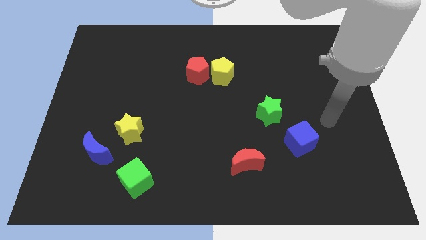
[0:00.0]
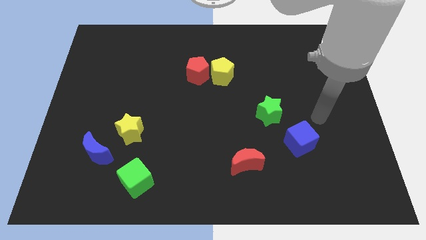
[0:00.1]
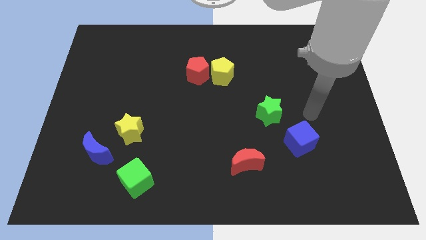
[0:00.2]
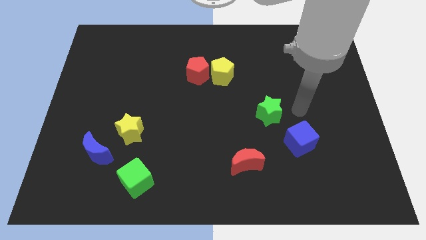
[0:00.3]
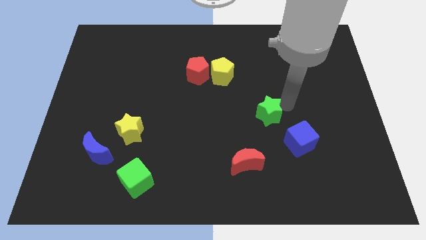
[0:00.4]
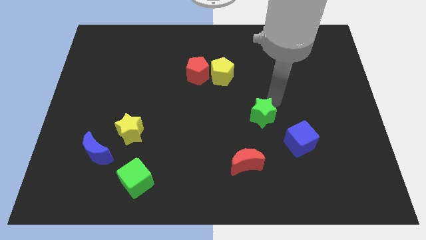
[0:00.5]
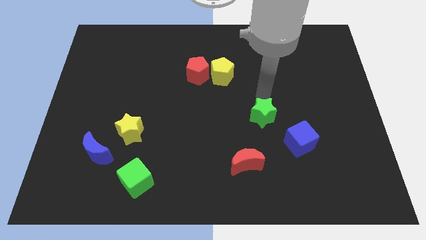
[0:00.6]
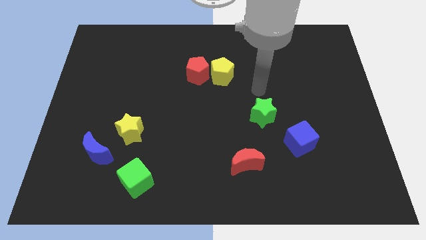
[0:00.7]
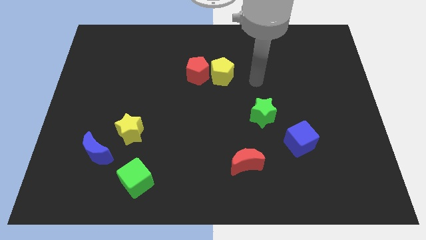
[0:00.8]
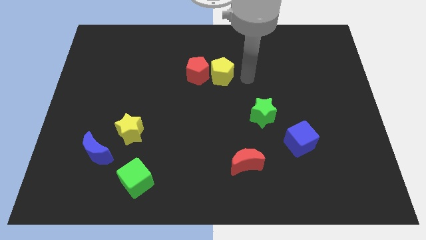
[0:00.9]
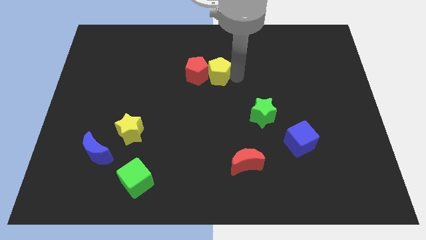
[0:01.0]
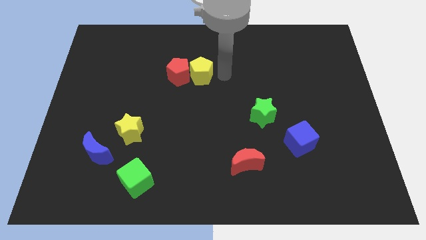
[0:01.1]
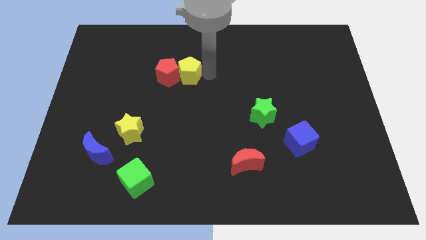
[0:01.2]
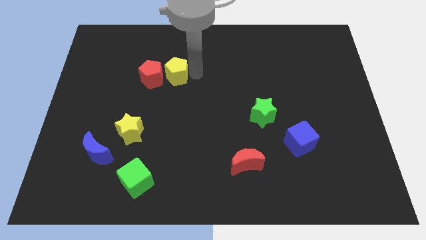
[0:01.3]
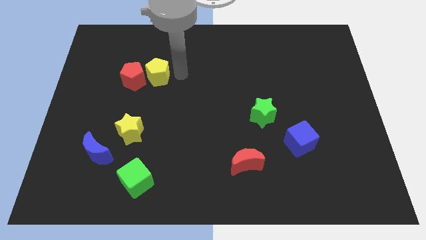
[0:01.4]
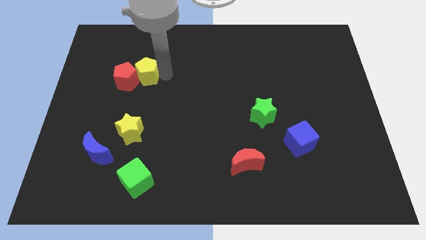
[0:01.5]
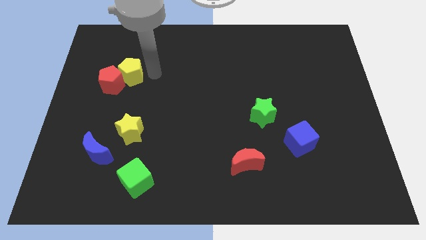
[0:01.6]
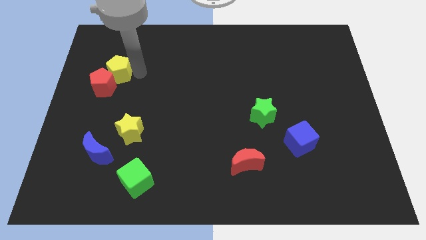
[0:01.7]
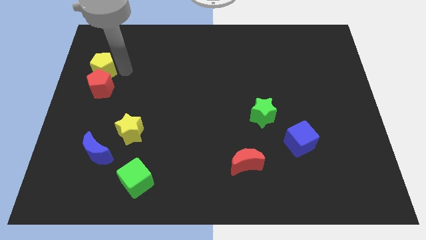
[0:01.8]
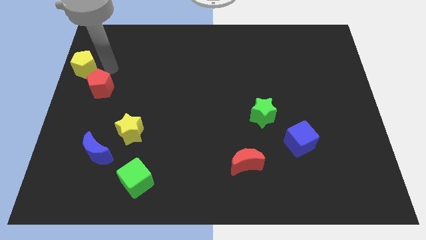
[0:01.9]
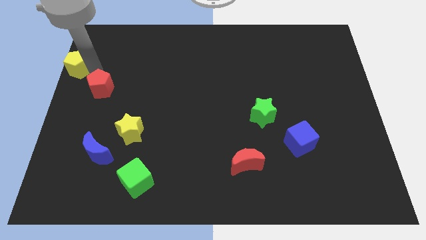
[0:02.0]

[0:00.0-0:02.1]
move the red pentagon away from the yellow pentagon

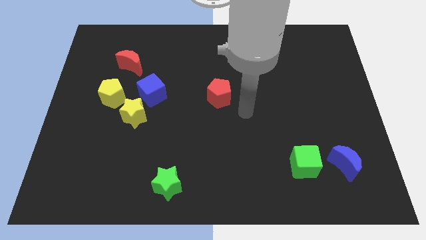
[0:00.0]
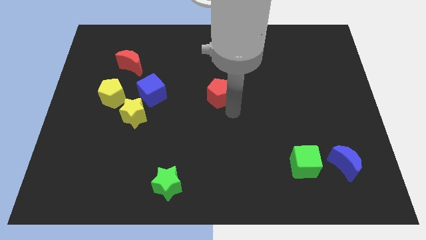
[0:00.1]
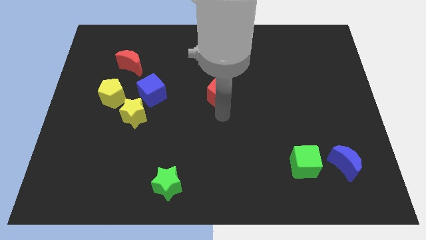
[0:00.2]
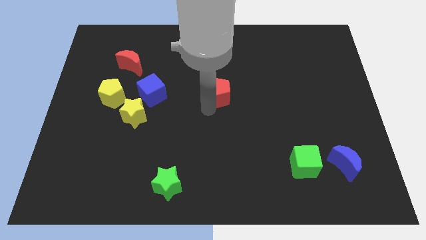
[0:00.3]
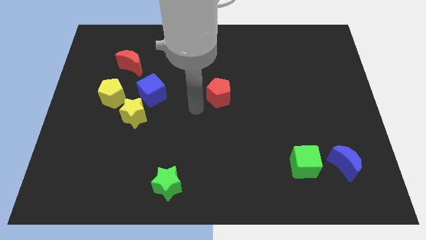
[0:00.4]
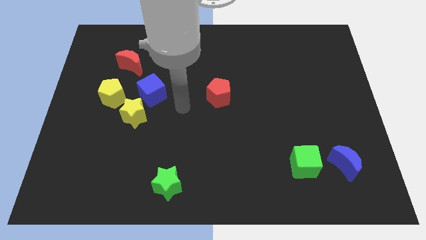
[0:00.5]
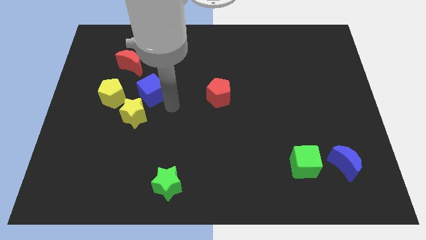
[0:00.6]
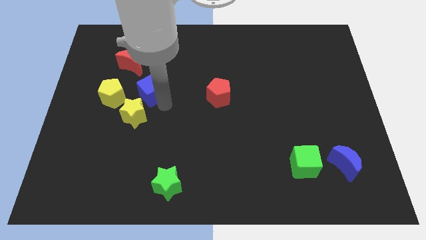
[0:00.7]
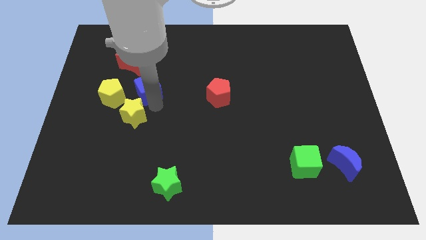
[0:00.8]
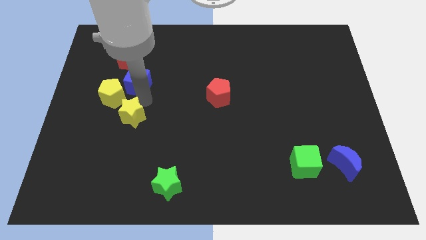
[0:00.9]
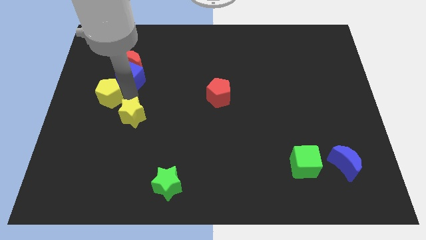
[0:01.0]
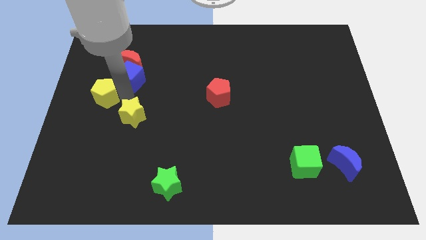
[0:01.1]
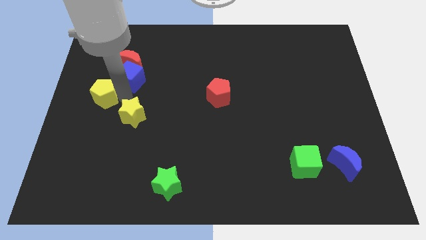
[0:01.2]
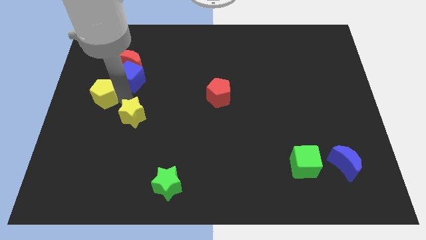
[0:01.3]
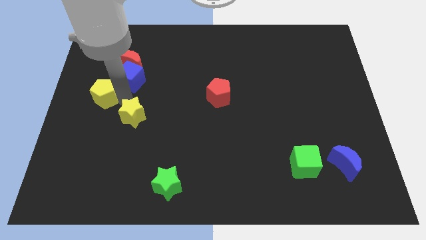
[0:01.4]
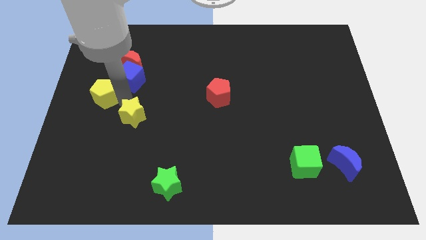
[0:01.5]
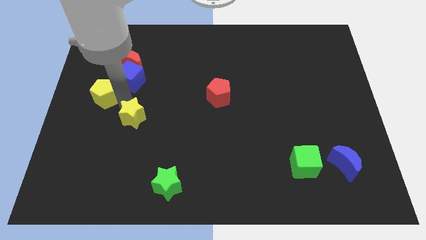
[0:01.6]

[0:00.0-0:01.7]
move the yellow star away from the blue cube and yellow pentagon

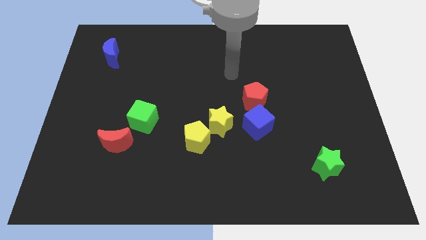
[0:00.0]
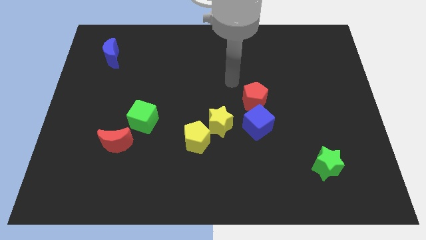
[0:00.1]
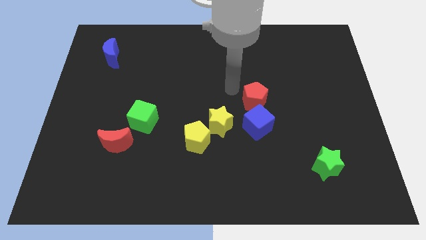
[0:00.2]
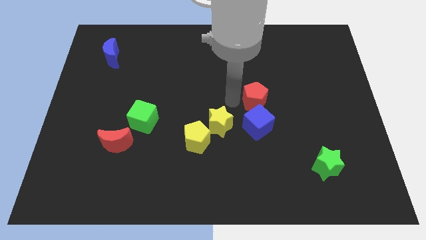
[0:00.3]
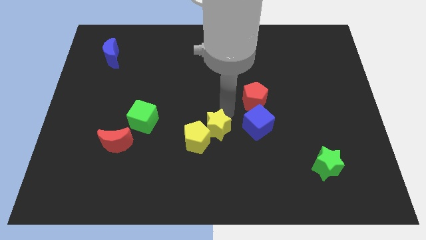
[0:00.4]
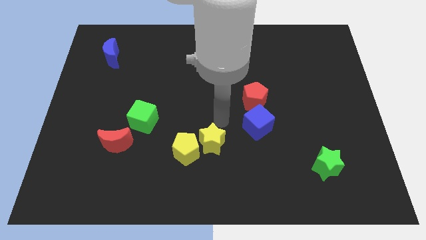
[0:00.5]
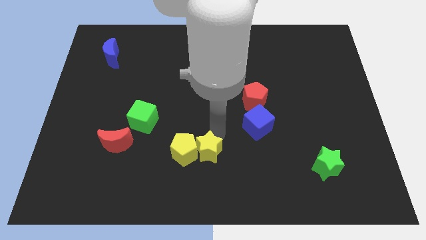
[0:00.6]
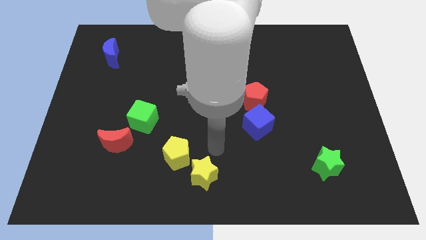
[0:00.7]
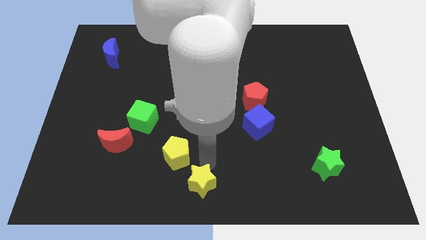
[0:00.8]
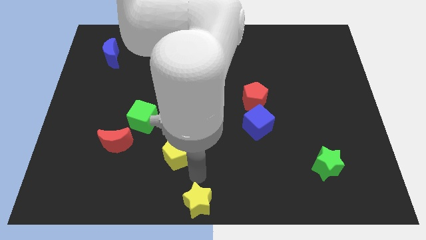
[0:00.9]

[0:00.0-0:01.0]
separate the yellow pentagon from the yellow star

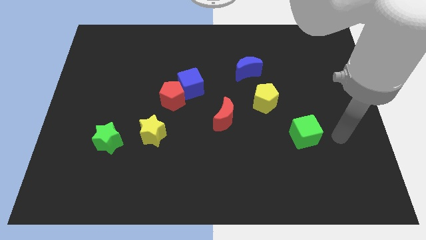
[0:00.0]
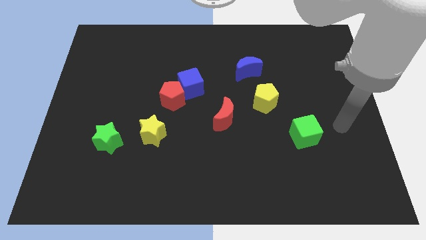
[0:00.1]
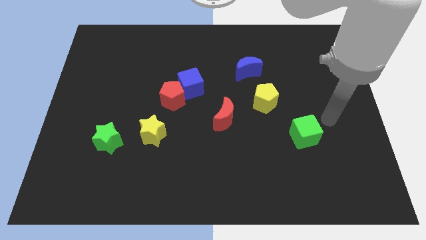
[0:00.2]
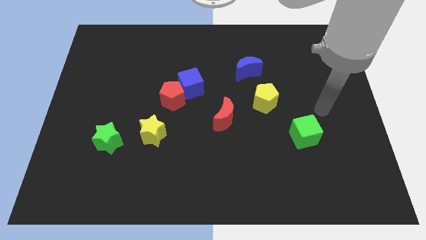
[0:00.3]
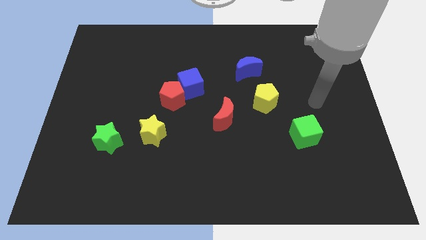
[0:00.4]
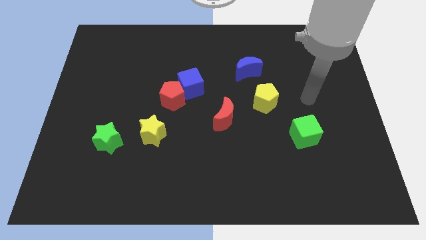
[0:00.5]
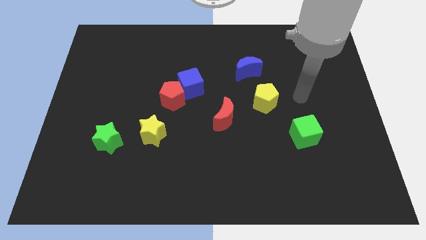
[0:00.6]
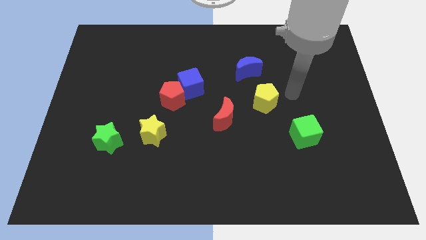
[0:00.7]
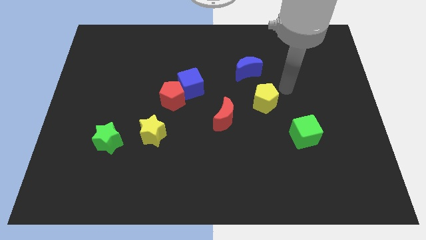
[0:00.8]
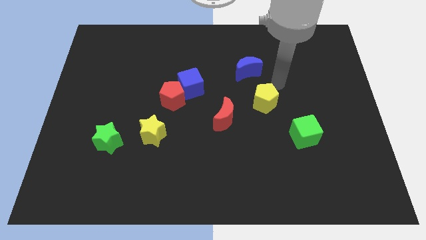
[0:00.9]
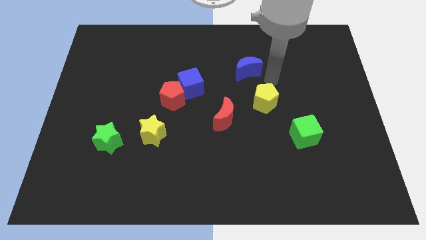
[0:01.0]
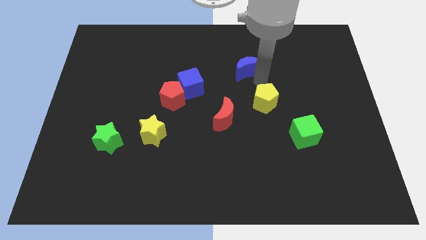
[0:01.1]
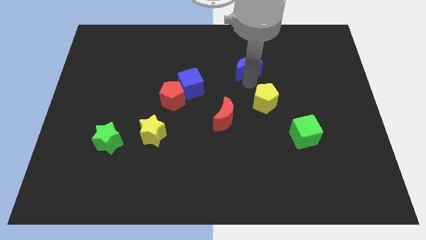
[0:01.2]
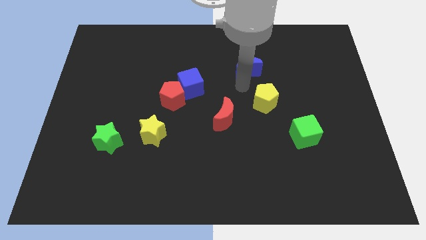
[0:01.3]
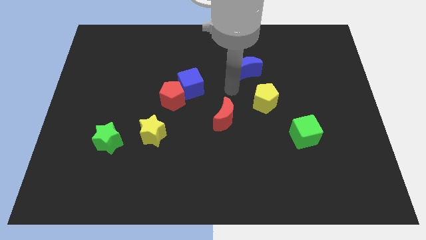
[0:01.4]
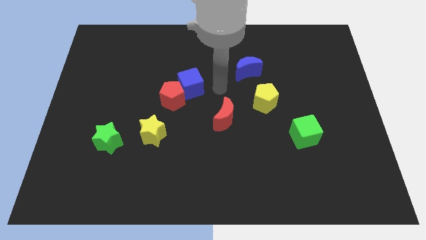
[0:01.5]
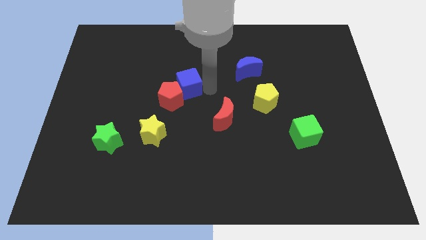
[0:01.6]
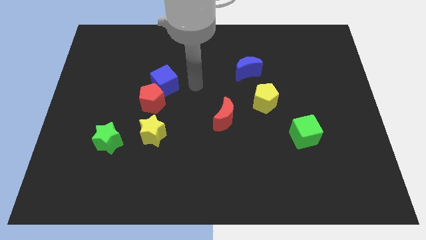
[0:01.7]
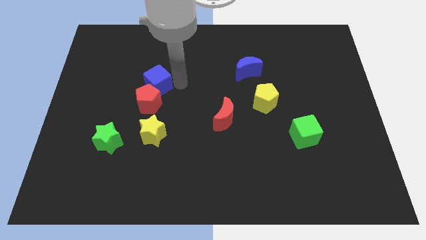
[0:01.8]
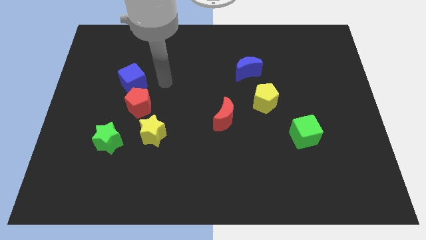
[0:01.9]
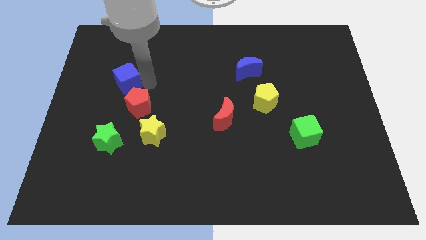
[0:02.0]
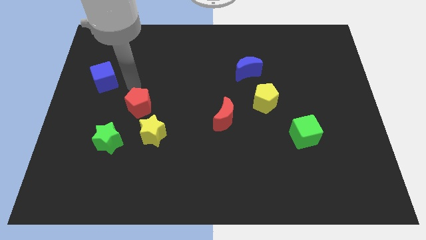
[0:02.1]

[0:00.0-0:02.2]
move the red pentagon away from the blue cube

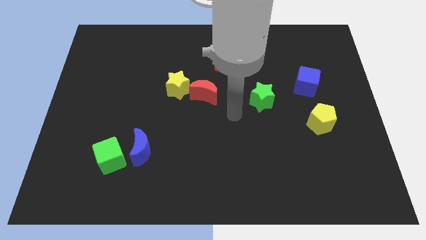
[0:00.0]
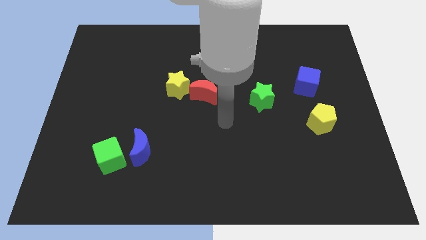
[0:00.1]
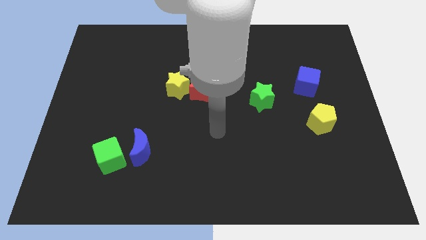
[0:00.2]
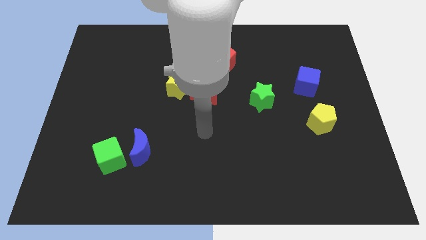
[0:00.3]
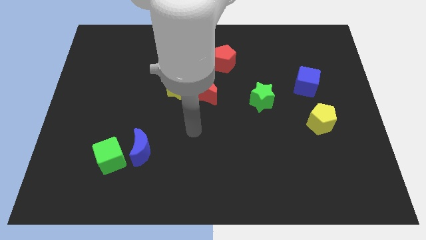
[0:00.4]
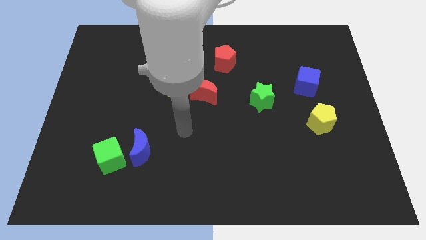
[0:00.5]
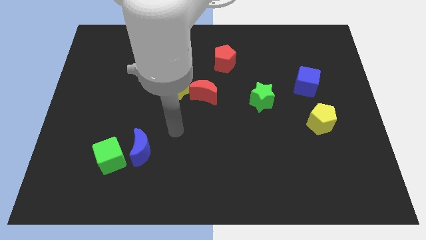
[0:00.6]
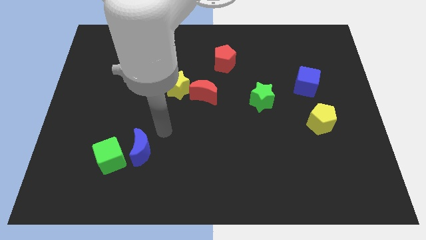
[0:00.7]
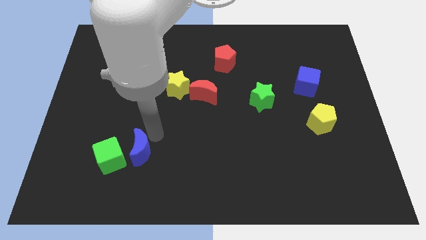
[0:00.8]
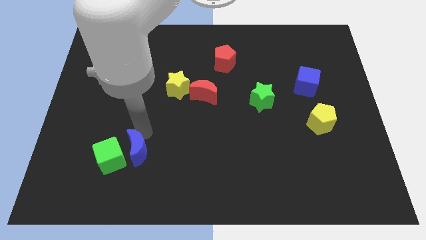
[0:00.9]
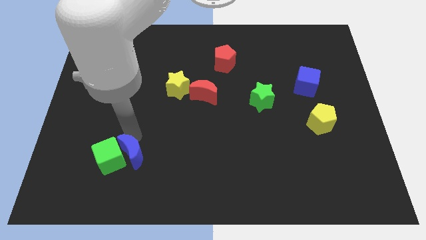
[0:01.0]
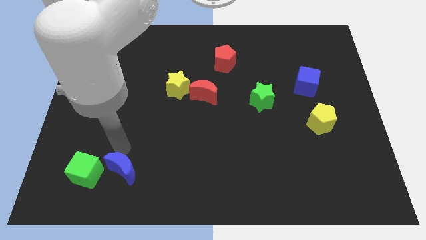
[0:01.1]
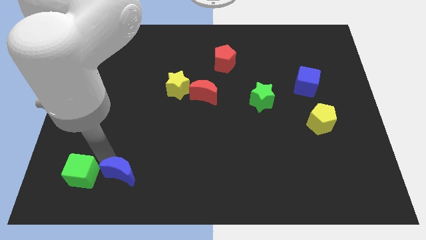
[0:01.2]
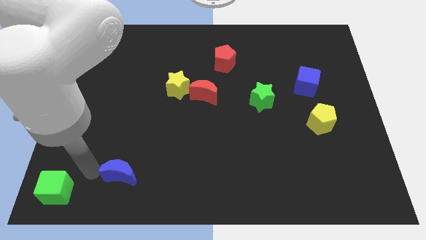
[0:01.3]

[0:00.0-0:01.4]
pull the blue moon apart from the green cube

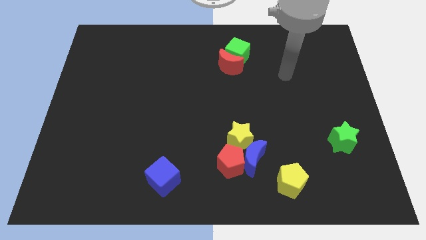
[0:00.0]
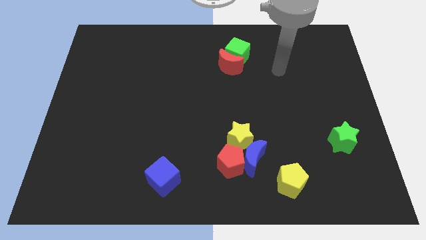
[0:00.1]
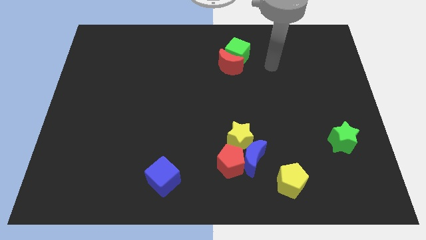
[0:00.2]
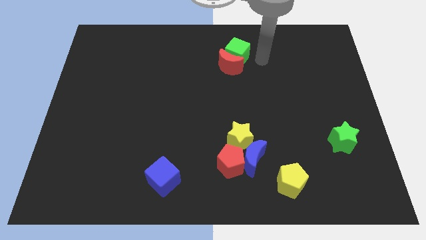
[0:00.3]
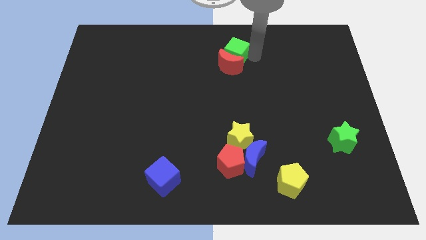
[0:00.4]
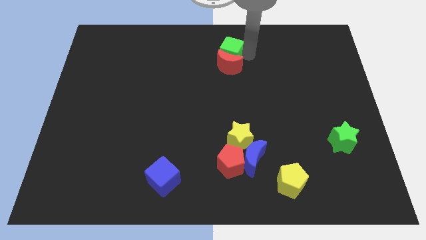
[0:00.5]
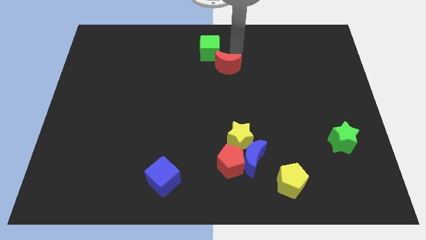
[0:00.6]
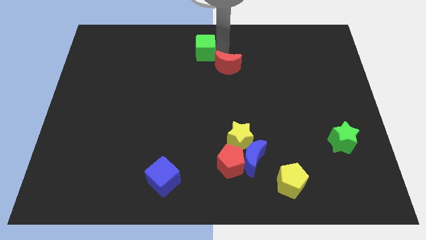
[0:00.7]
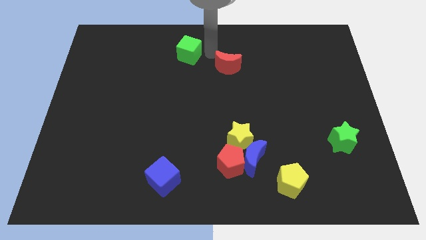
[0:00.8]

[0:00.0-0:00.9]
separate the red moon from the green cube

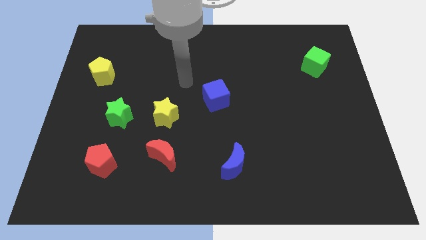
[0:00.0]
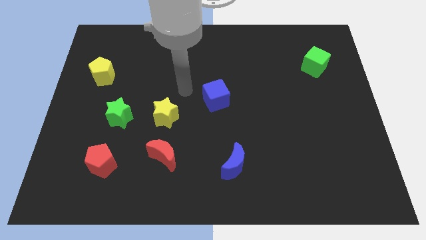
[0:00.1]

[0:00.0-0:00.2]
separate the red moon from the yellow star
